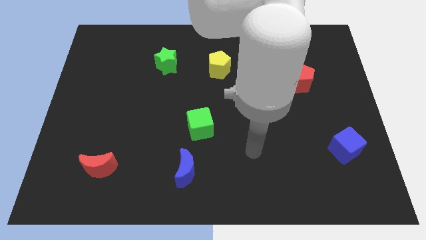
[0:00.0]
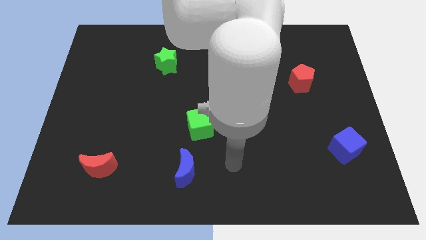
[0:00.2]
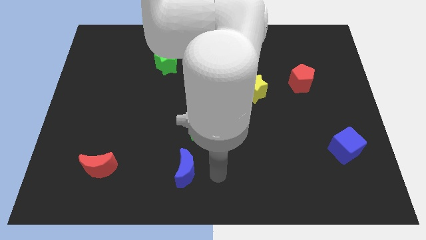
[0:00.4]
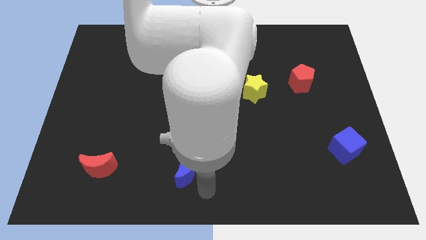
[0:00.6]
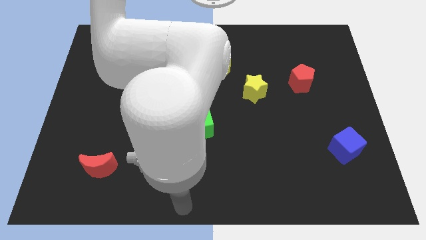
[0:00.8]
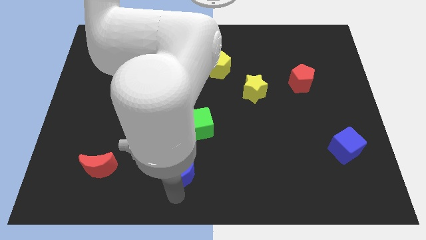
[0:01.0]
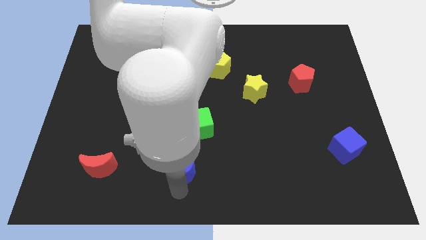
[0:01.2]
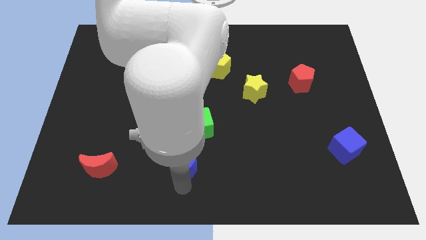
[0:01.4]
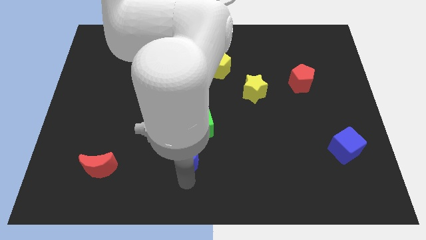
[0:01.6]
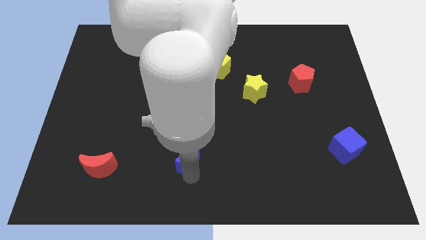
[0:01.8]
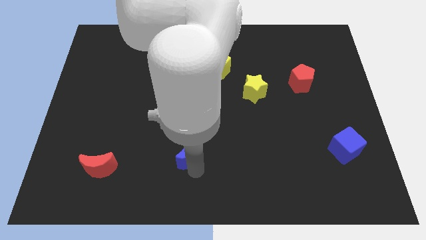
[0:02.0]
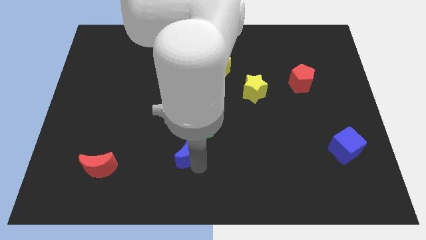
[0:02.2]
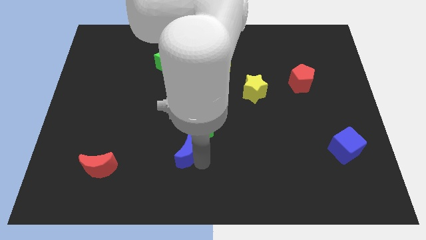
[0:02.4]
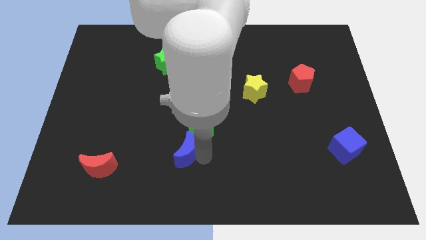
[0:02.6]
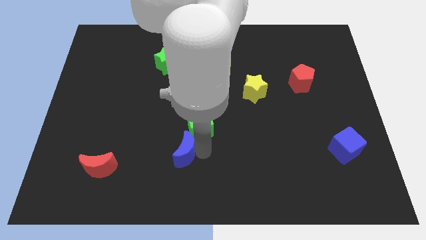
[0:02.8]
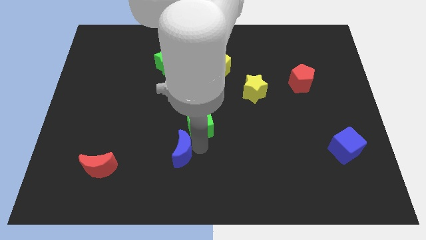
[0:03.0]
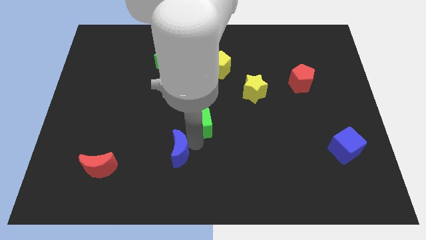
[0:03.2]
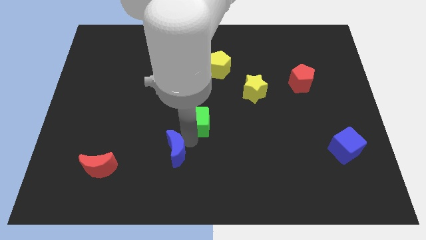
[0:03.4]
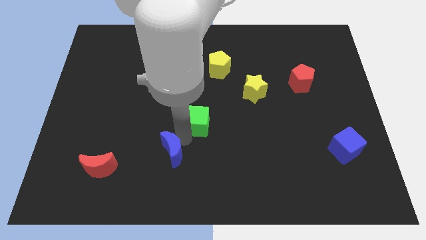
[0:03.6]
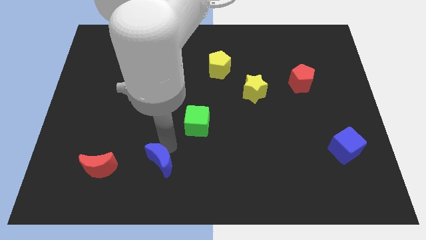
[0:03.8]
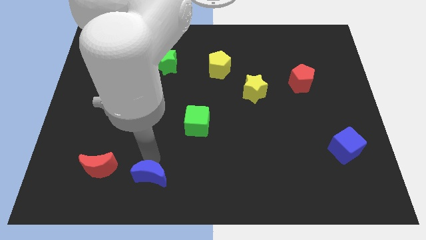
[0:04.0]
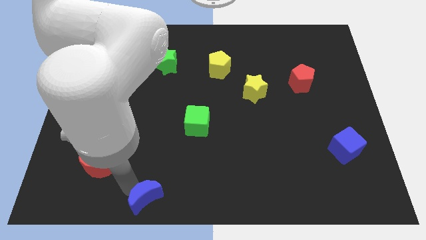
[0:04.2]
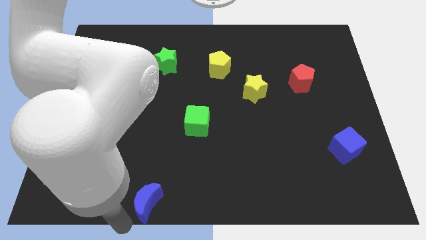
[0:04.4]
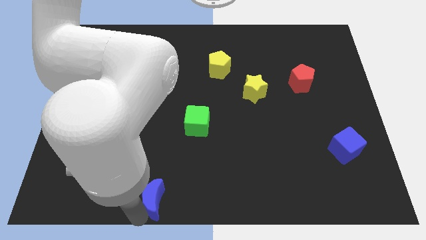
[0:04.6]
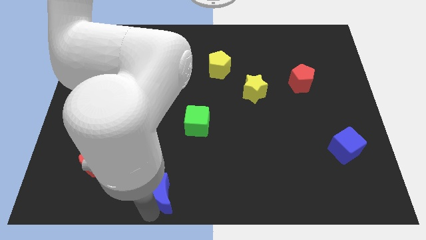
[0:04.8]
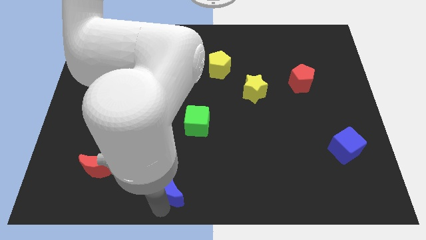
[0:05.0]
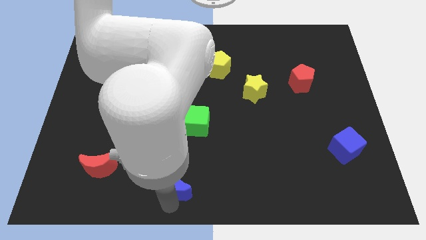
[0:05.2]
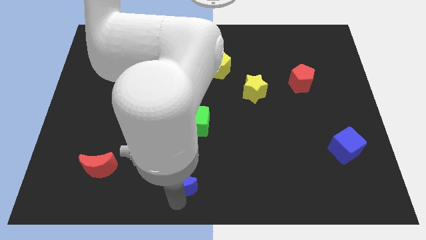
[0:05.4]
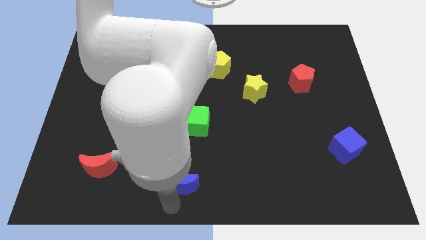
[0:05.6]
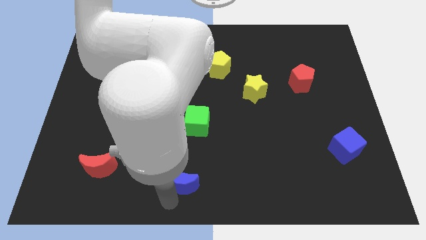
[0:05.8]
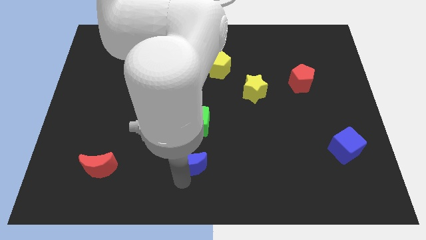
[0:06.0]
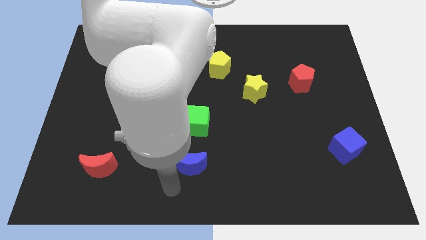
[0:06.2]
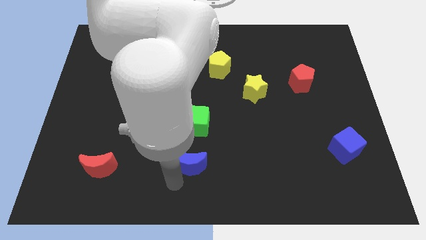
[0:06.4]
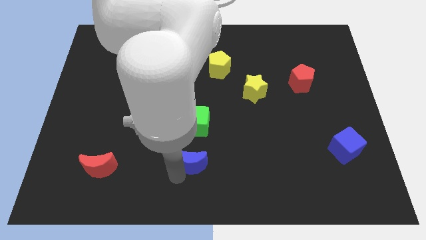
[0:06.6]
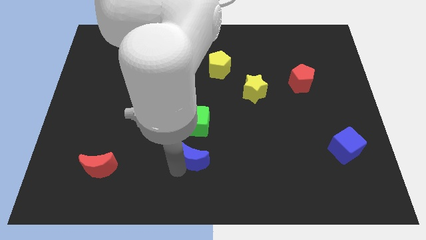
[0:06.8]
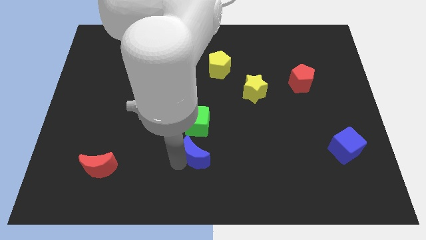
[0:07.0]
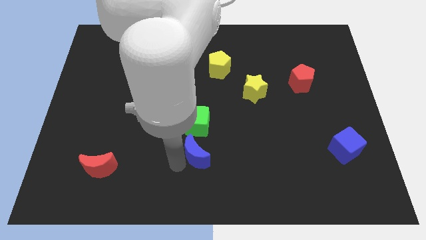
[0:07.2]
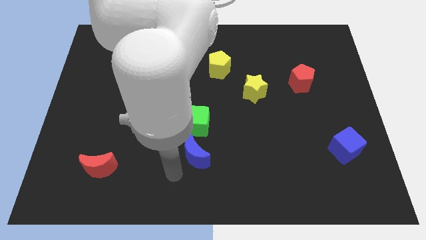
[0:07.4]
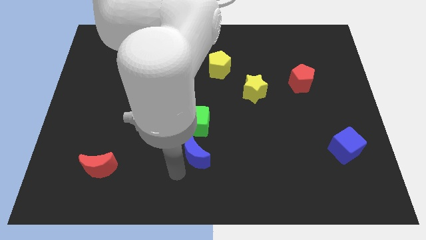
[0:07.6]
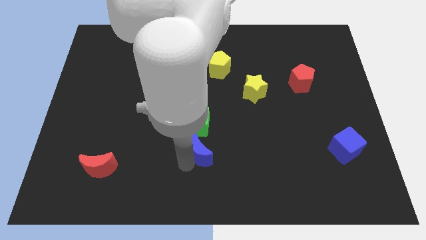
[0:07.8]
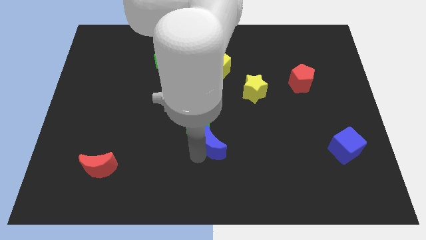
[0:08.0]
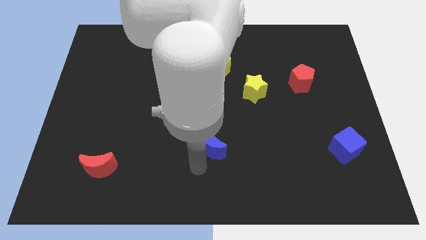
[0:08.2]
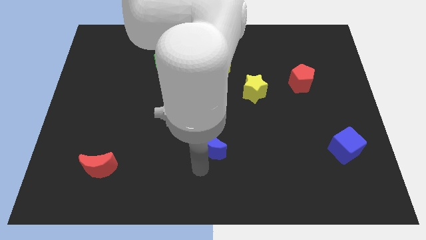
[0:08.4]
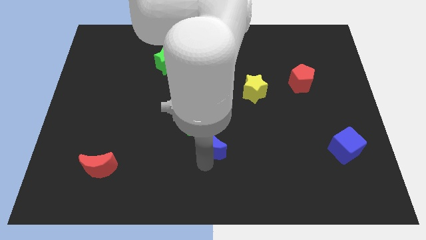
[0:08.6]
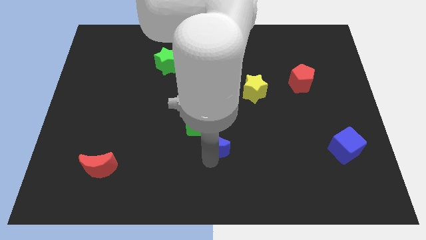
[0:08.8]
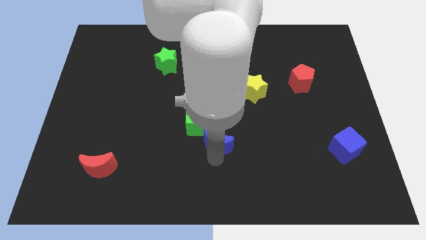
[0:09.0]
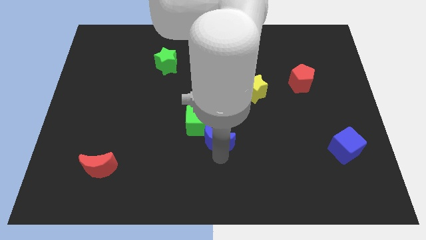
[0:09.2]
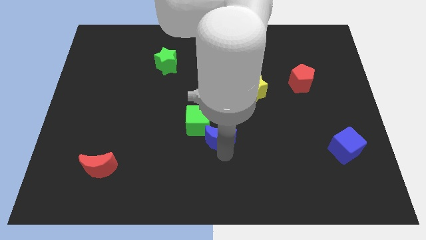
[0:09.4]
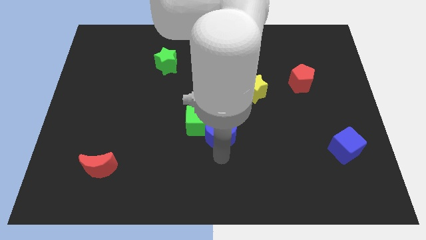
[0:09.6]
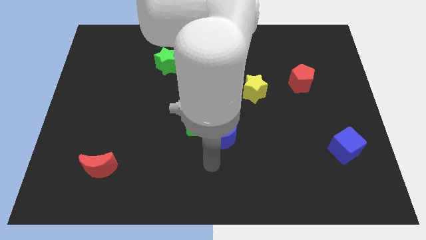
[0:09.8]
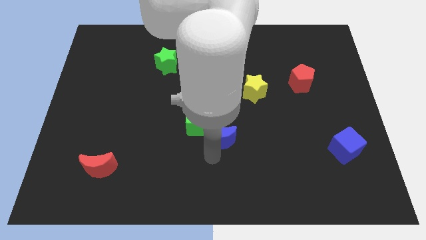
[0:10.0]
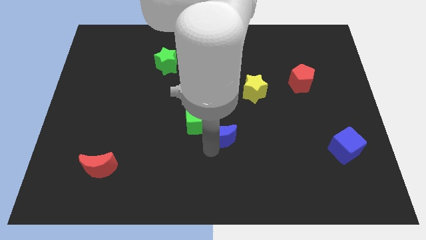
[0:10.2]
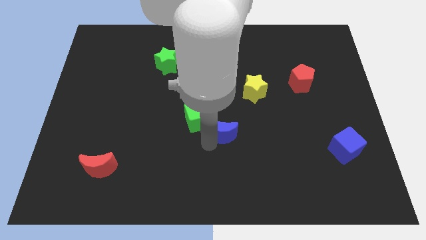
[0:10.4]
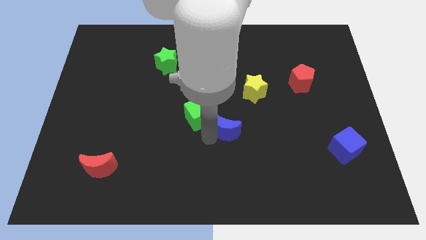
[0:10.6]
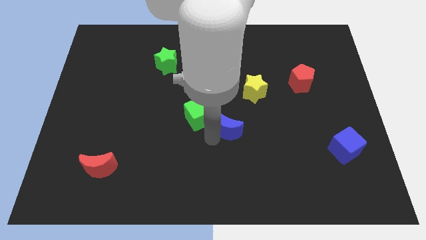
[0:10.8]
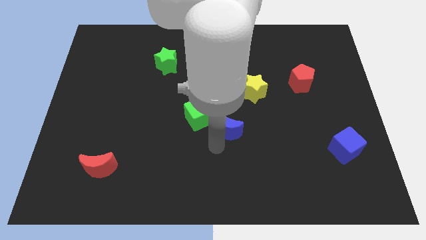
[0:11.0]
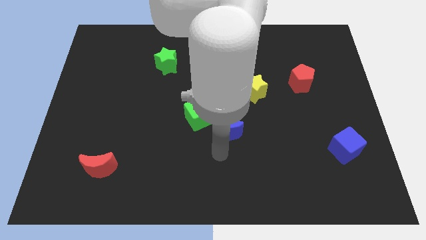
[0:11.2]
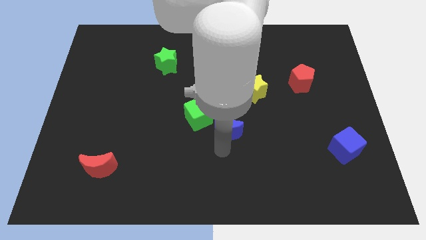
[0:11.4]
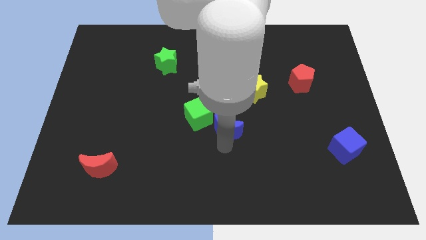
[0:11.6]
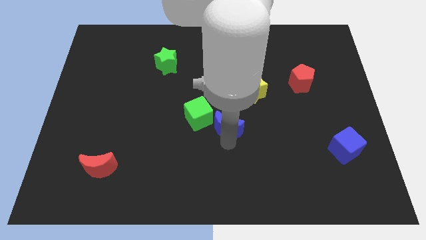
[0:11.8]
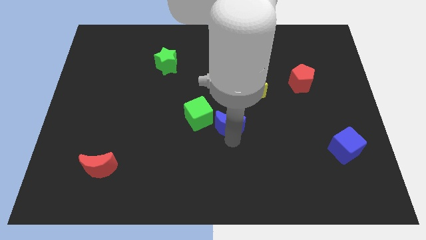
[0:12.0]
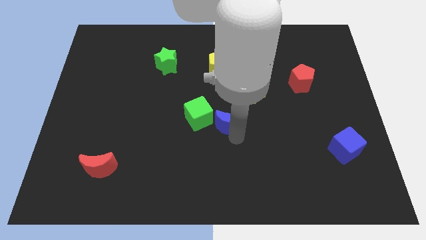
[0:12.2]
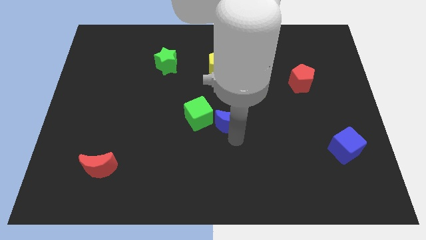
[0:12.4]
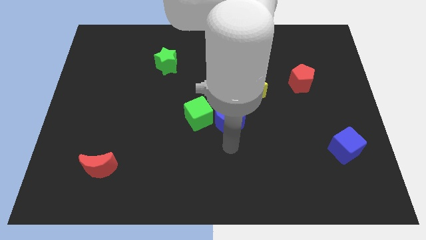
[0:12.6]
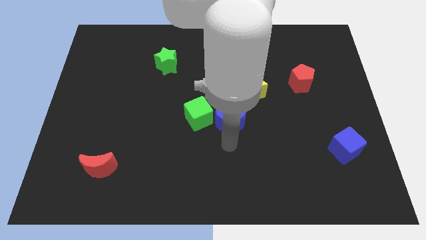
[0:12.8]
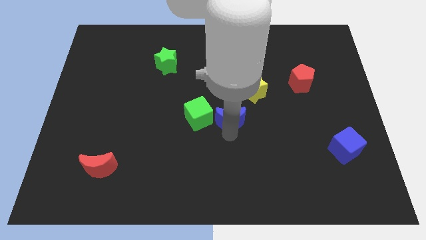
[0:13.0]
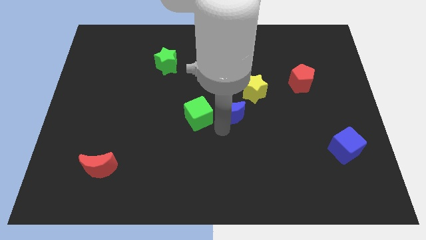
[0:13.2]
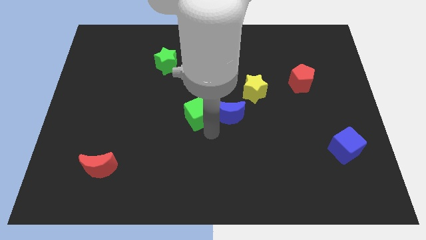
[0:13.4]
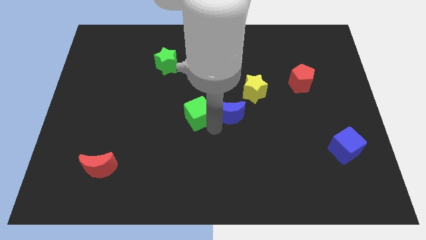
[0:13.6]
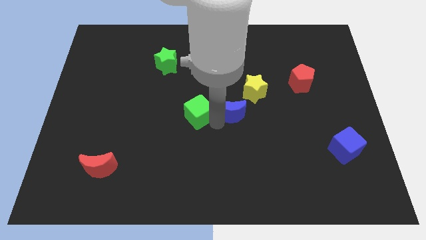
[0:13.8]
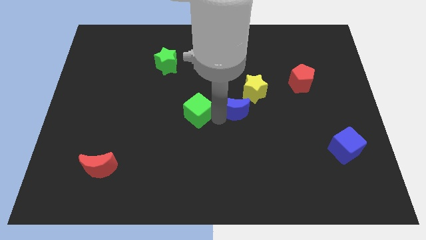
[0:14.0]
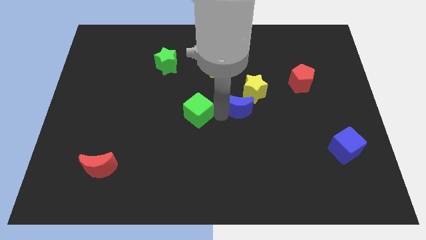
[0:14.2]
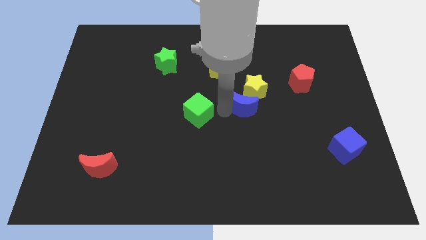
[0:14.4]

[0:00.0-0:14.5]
move the blue moon towards the yellow star
